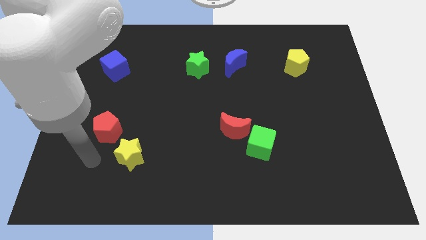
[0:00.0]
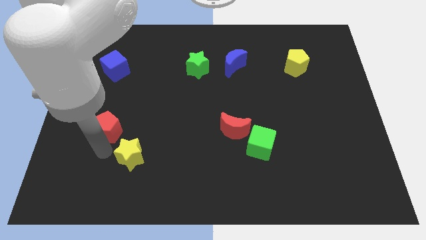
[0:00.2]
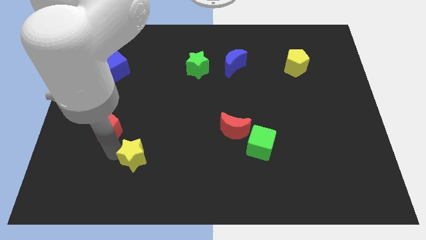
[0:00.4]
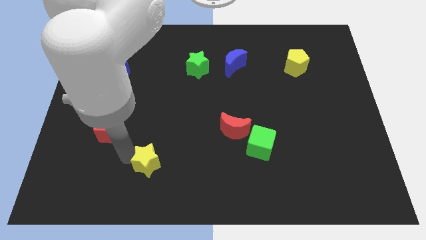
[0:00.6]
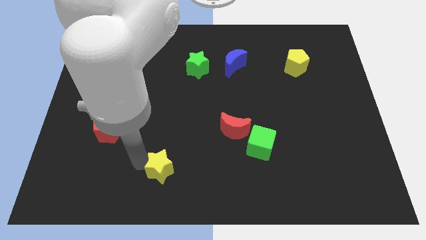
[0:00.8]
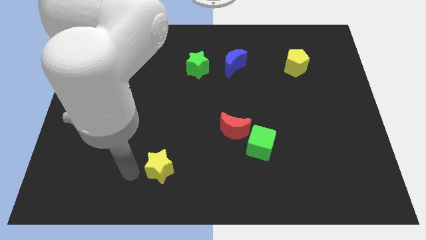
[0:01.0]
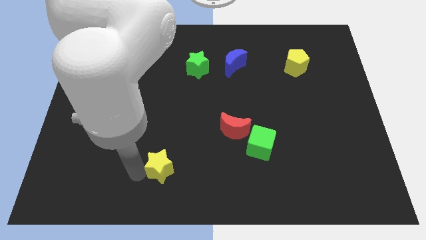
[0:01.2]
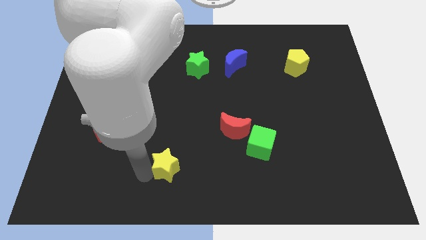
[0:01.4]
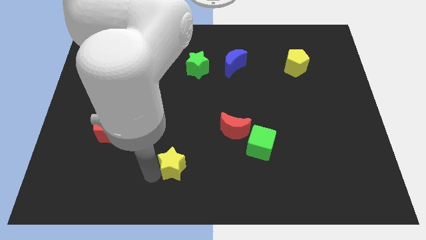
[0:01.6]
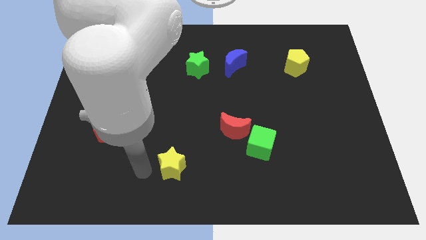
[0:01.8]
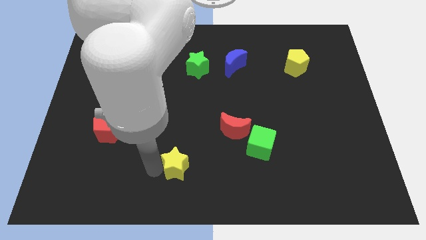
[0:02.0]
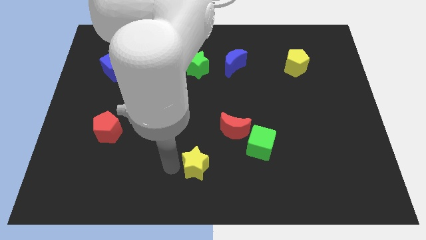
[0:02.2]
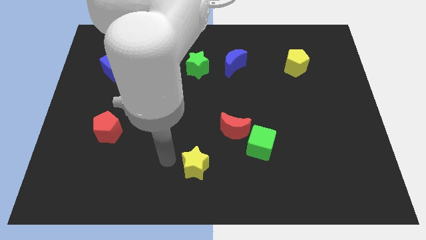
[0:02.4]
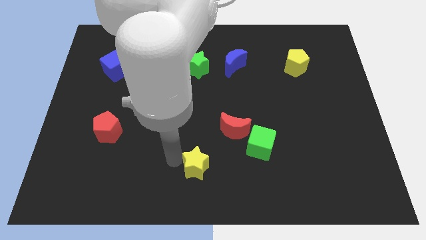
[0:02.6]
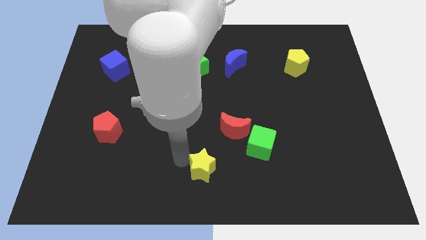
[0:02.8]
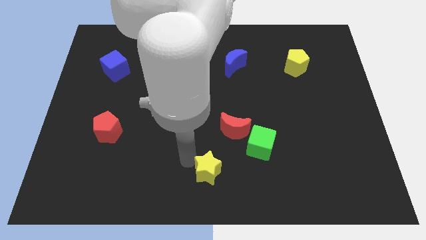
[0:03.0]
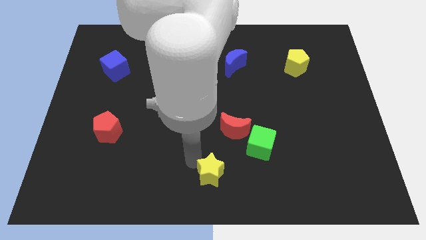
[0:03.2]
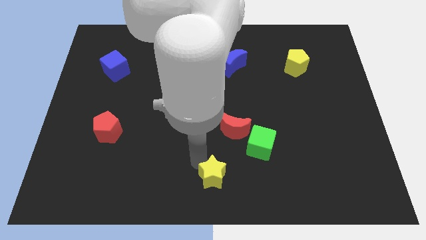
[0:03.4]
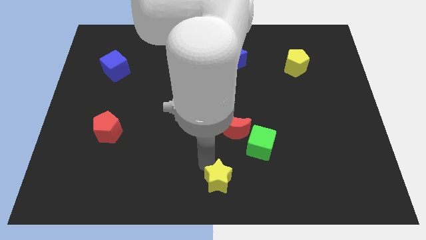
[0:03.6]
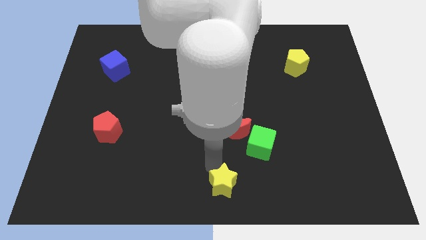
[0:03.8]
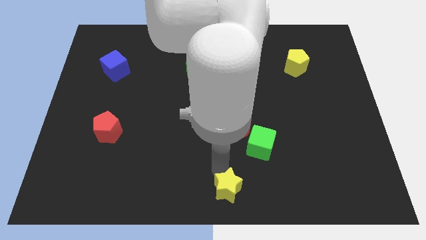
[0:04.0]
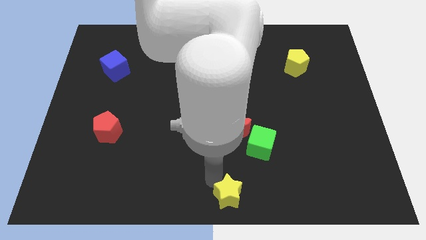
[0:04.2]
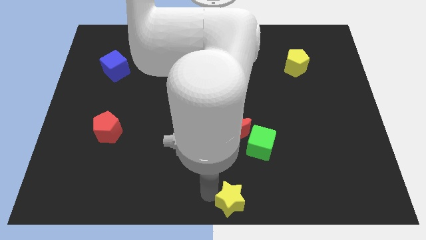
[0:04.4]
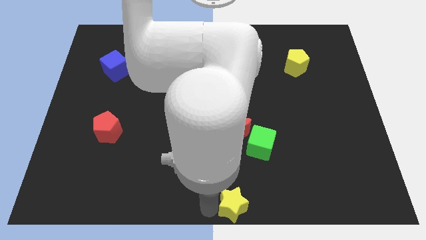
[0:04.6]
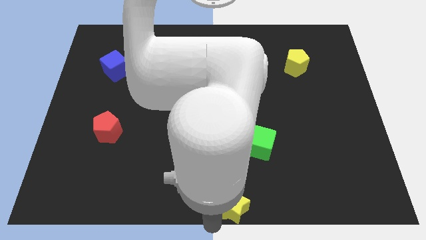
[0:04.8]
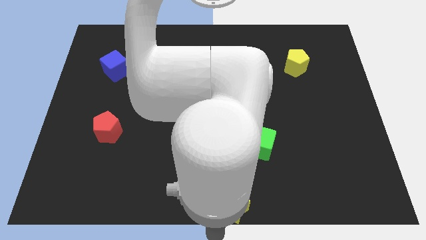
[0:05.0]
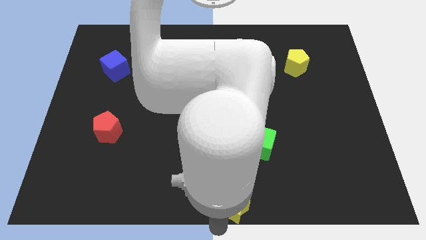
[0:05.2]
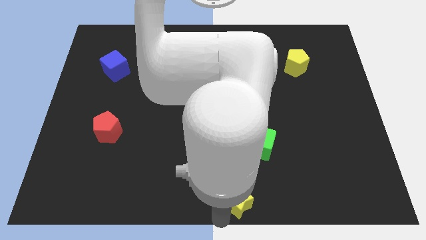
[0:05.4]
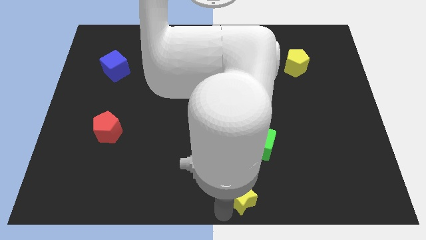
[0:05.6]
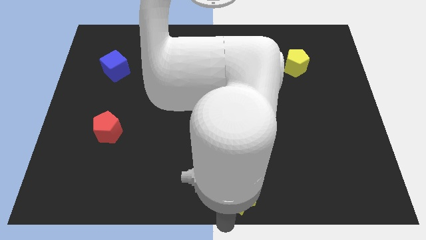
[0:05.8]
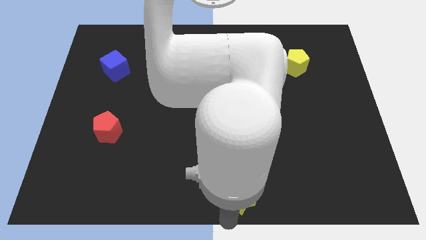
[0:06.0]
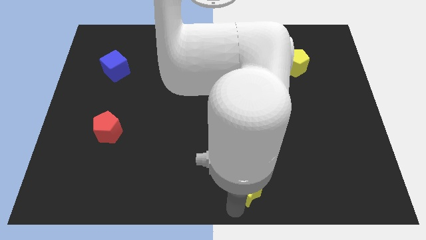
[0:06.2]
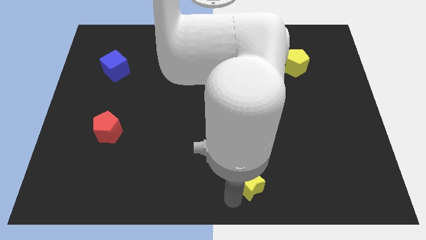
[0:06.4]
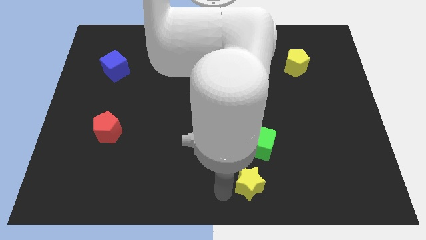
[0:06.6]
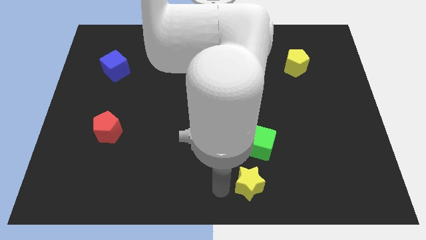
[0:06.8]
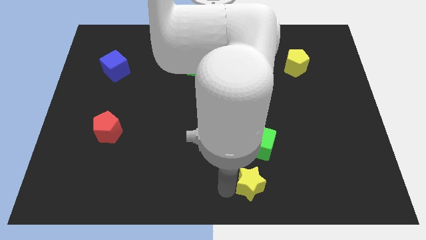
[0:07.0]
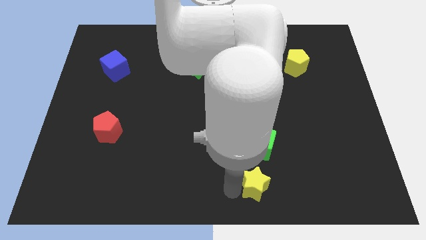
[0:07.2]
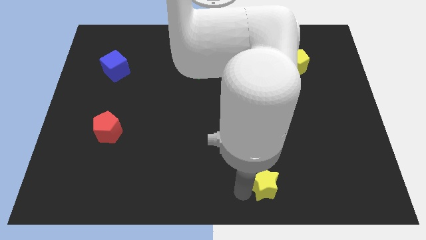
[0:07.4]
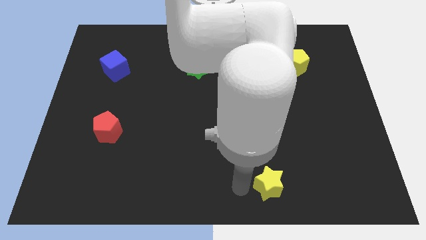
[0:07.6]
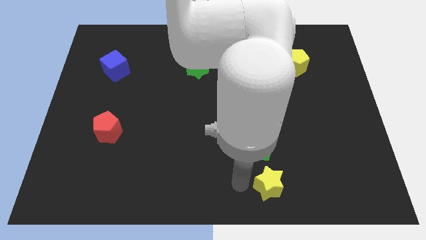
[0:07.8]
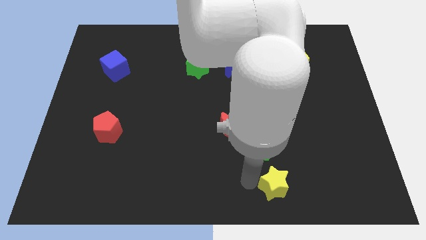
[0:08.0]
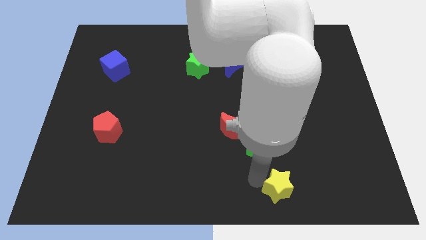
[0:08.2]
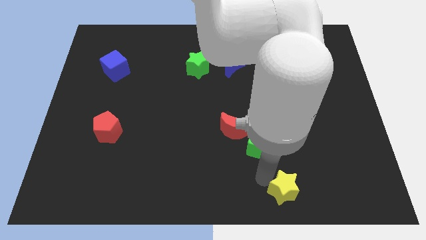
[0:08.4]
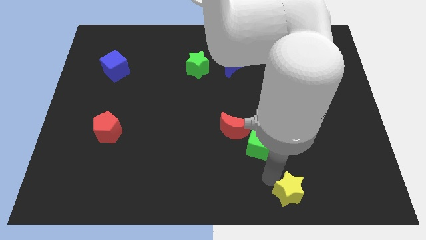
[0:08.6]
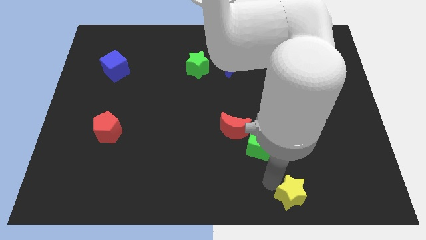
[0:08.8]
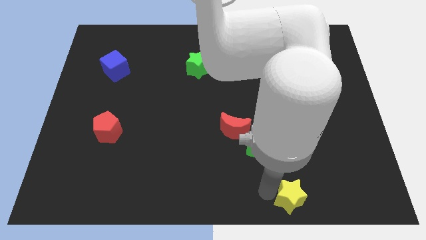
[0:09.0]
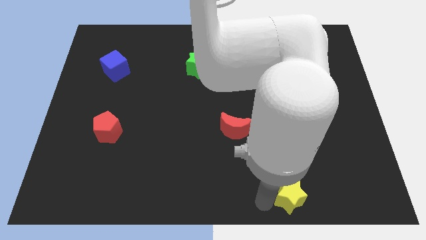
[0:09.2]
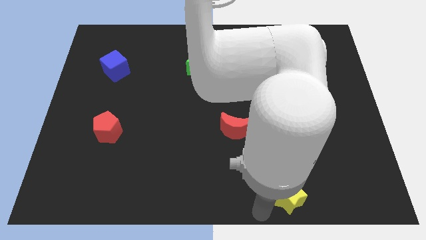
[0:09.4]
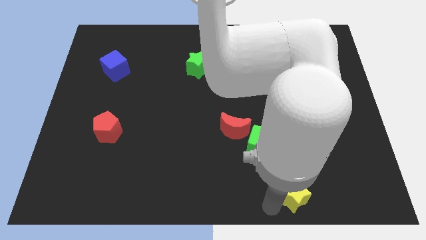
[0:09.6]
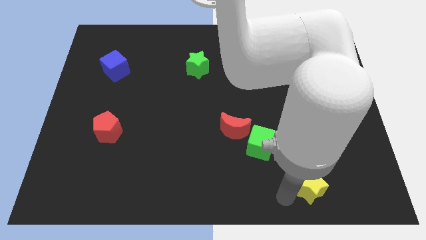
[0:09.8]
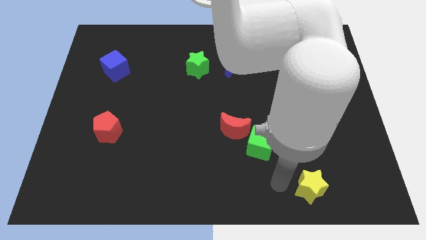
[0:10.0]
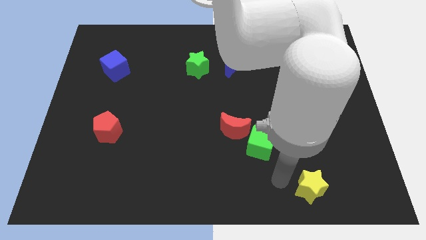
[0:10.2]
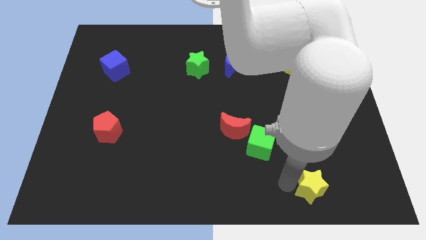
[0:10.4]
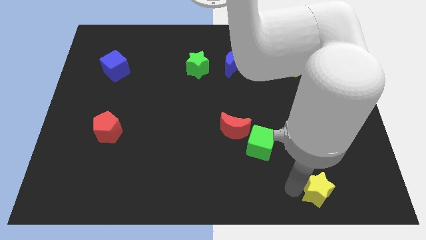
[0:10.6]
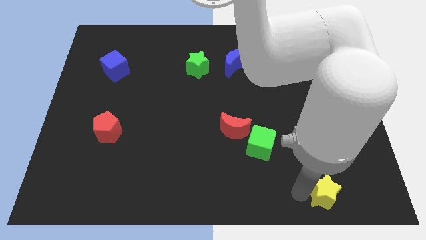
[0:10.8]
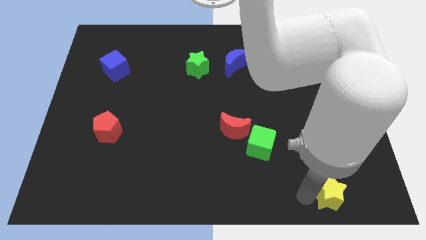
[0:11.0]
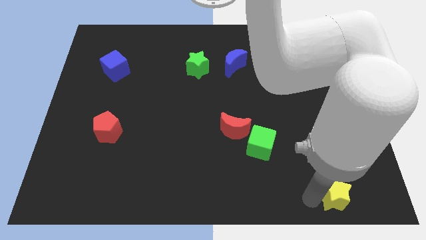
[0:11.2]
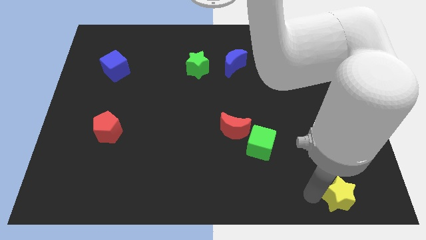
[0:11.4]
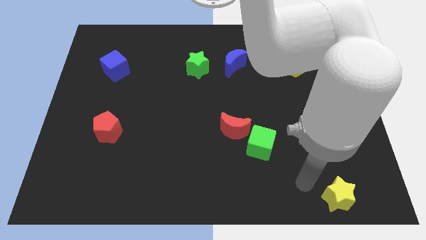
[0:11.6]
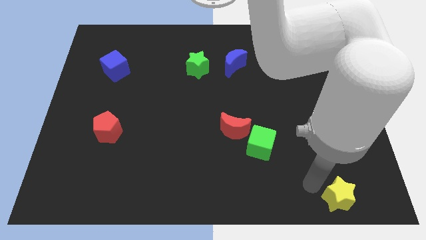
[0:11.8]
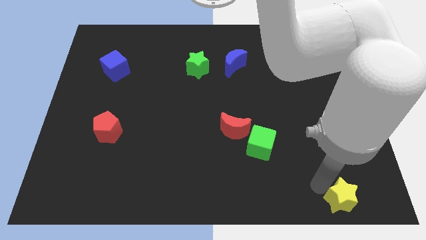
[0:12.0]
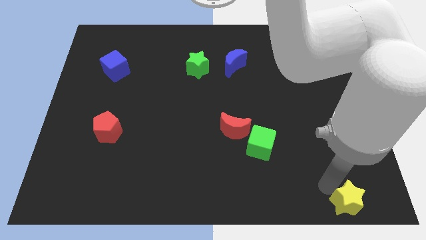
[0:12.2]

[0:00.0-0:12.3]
slide the yellow star to the bottom right corner

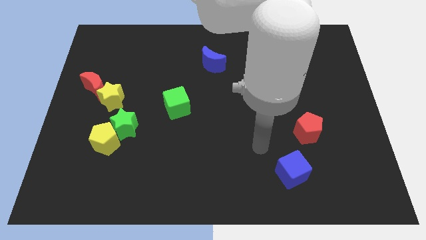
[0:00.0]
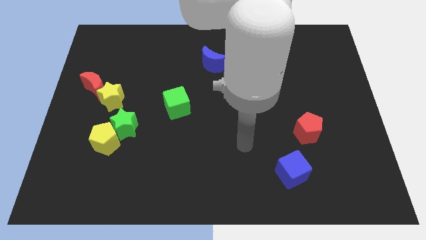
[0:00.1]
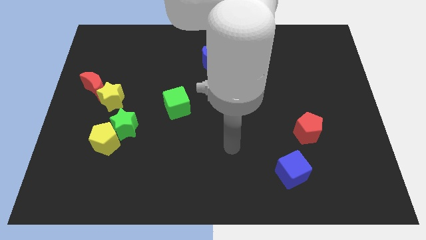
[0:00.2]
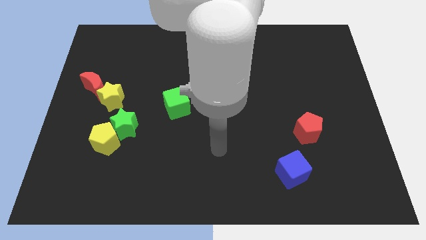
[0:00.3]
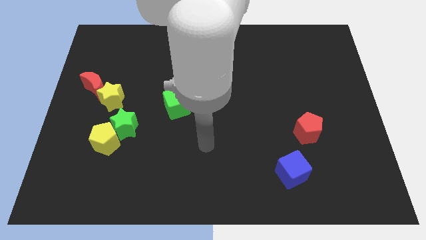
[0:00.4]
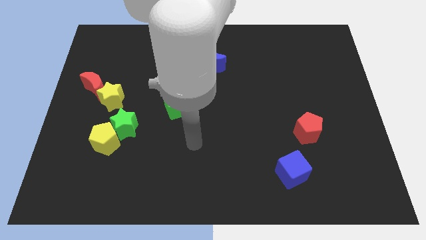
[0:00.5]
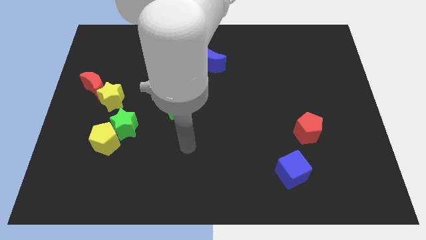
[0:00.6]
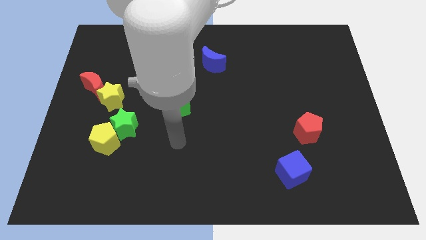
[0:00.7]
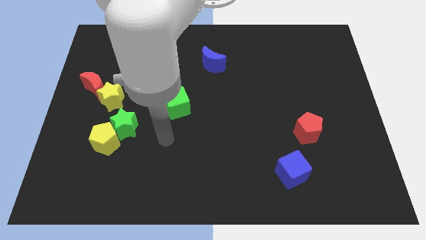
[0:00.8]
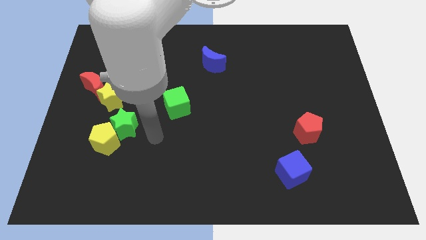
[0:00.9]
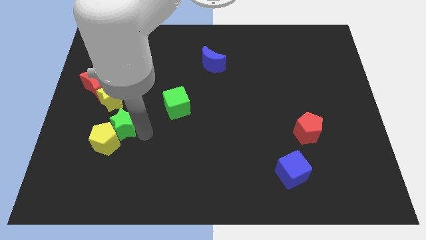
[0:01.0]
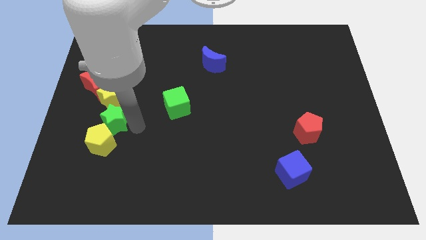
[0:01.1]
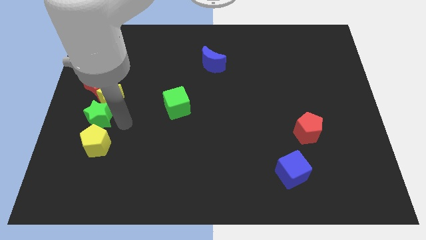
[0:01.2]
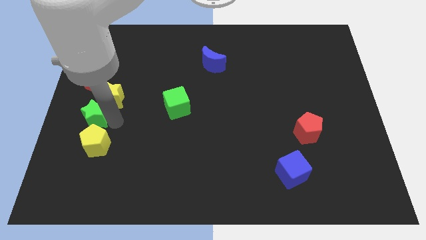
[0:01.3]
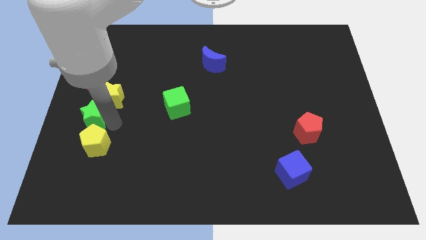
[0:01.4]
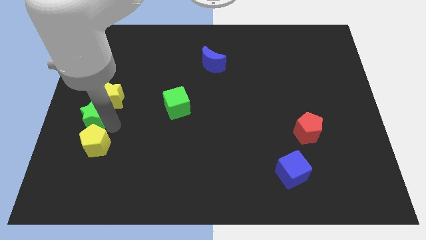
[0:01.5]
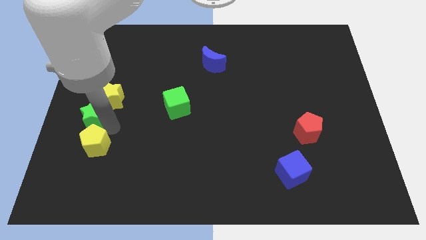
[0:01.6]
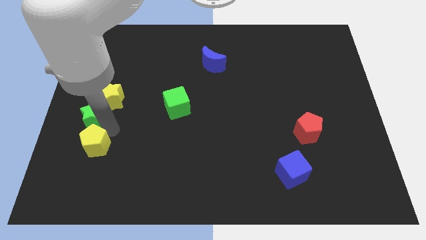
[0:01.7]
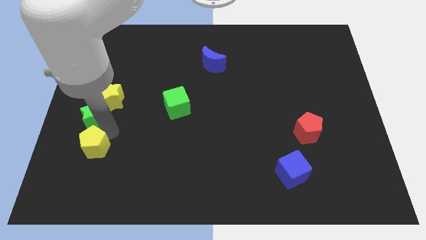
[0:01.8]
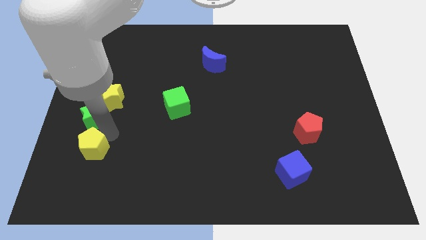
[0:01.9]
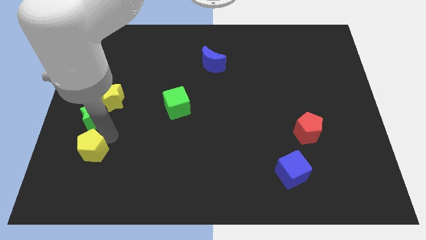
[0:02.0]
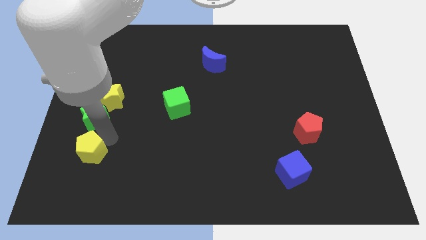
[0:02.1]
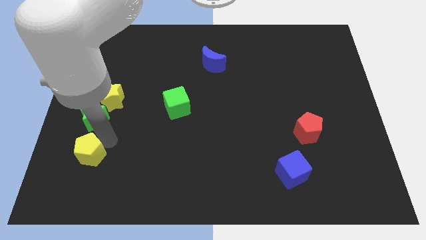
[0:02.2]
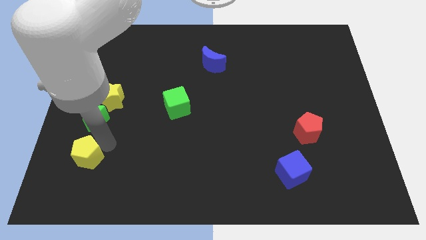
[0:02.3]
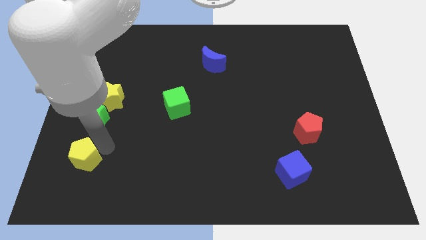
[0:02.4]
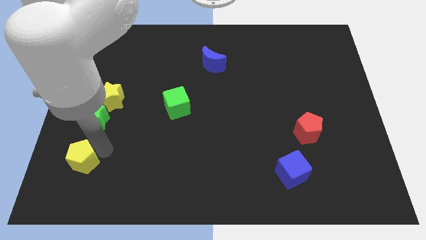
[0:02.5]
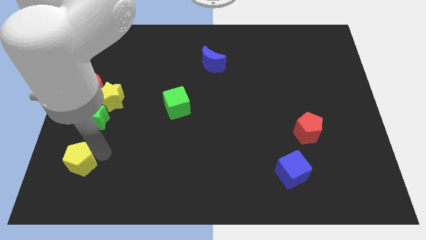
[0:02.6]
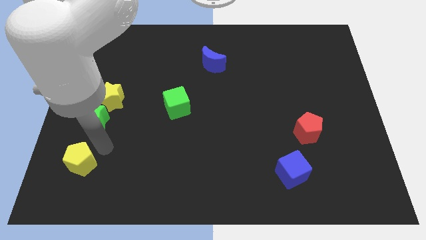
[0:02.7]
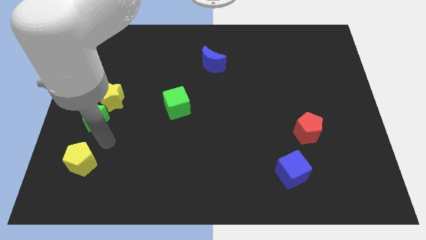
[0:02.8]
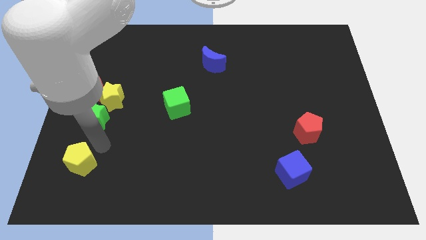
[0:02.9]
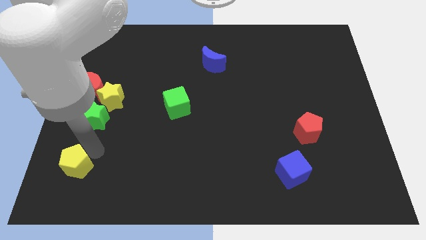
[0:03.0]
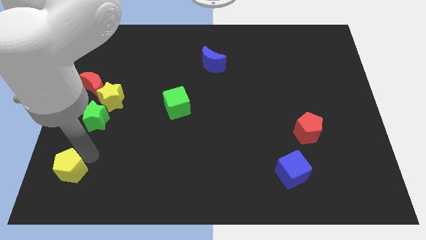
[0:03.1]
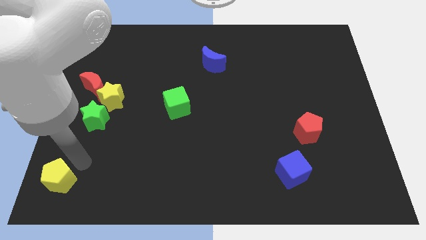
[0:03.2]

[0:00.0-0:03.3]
move the yellow pentagon to the bottom left of the board
